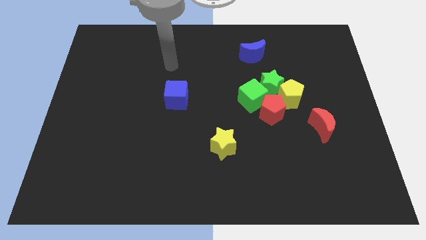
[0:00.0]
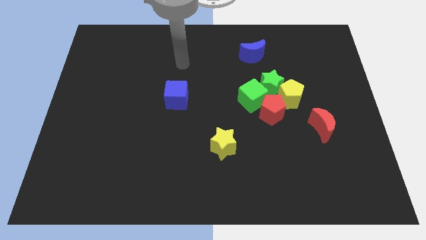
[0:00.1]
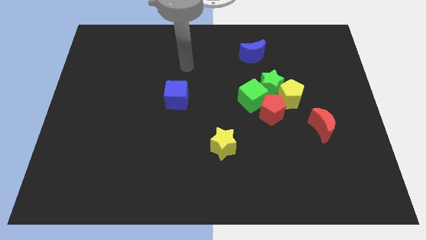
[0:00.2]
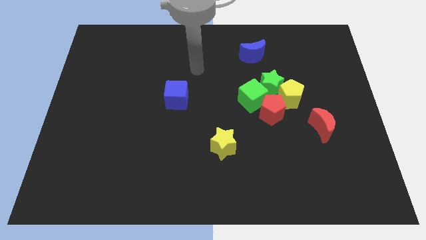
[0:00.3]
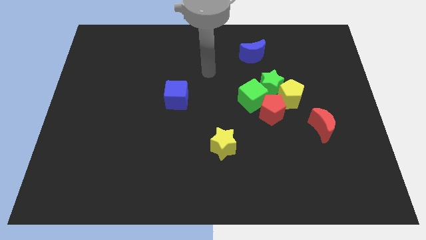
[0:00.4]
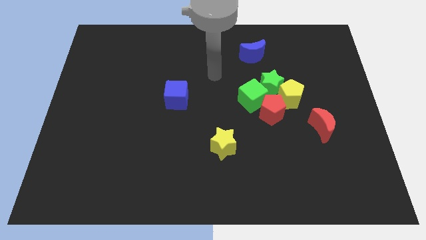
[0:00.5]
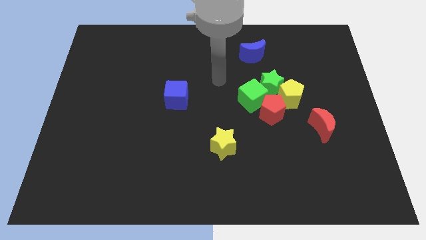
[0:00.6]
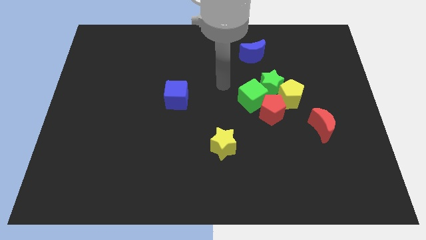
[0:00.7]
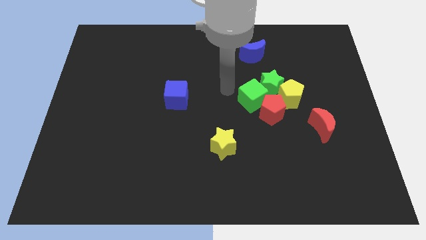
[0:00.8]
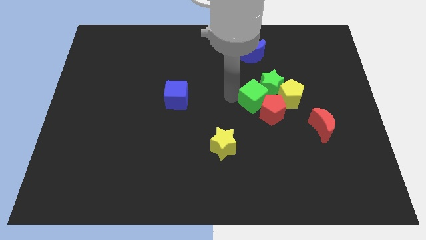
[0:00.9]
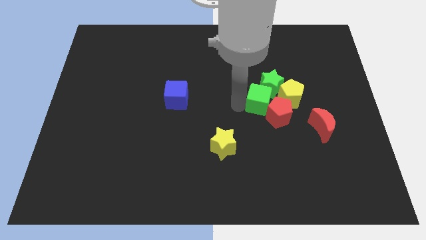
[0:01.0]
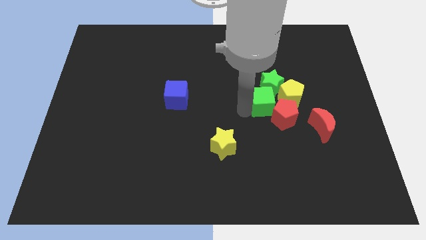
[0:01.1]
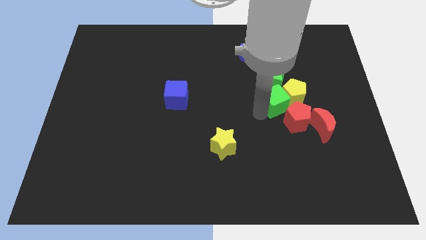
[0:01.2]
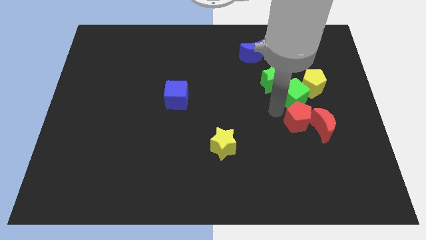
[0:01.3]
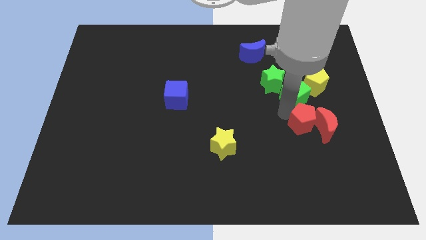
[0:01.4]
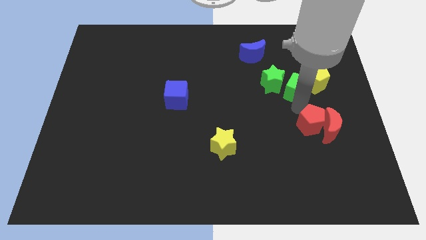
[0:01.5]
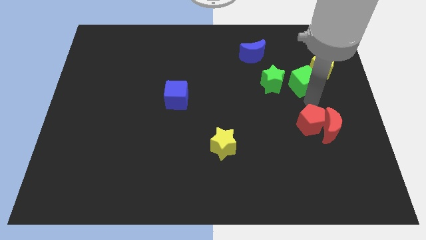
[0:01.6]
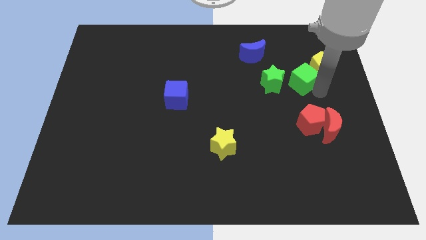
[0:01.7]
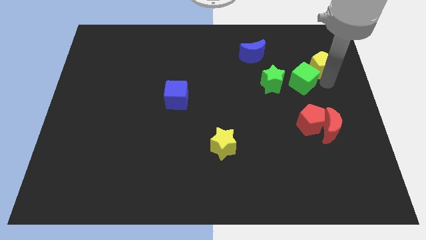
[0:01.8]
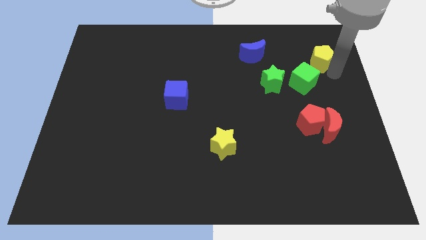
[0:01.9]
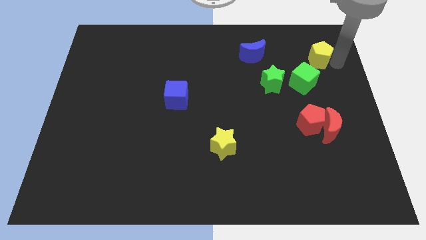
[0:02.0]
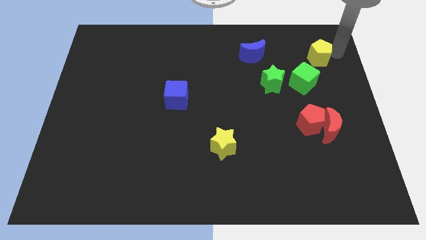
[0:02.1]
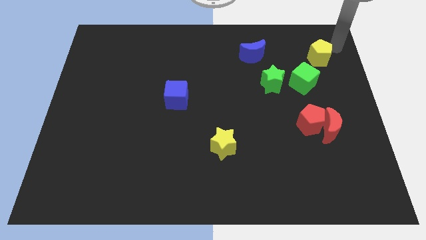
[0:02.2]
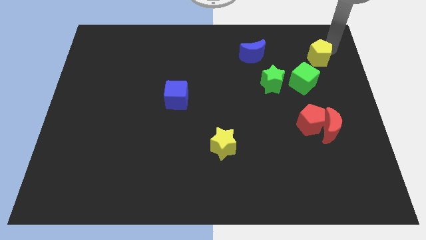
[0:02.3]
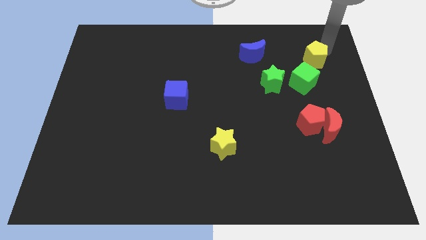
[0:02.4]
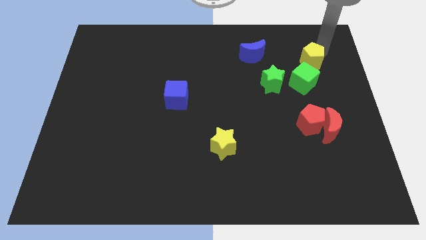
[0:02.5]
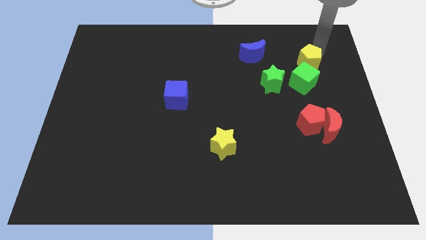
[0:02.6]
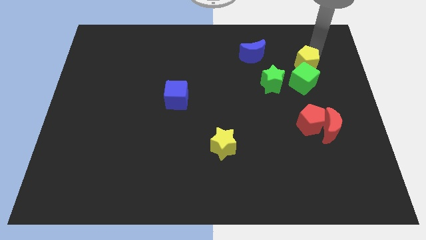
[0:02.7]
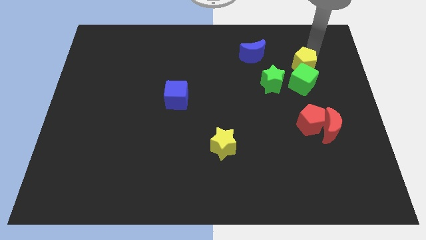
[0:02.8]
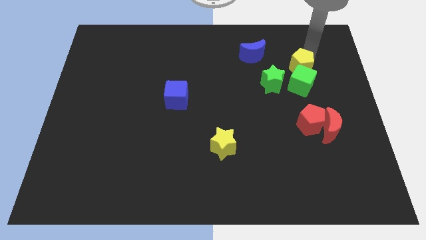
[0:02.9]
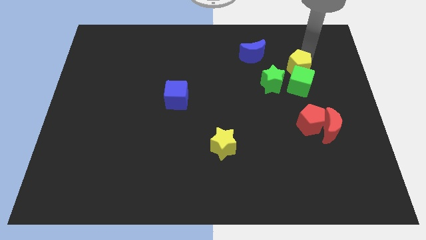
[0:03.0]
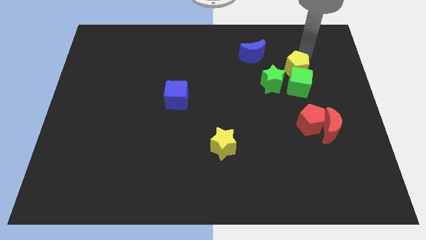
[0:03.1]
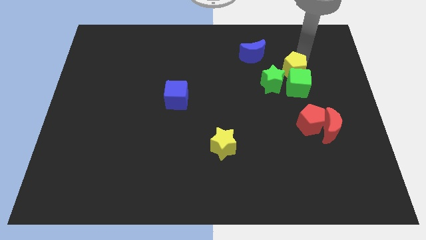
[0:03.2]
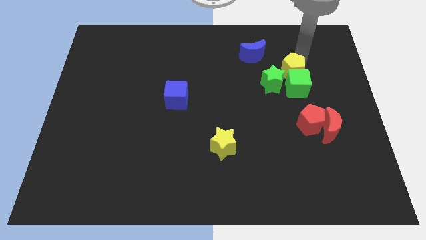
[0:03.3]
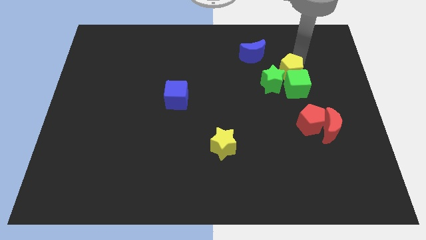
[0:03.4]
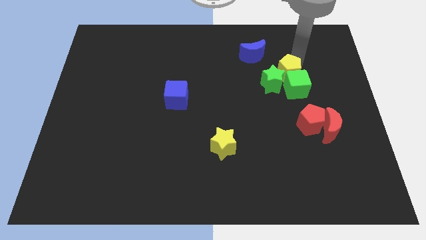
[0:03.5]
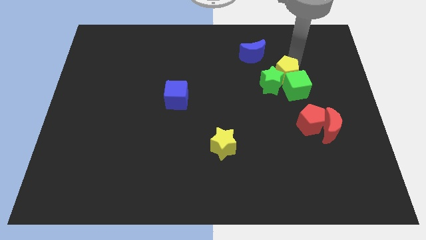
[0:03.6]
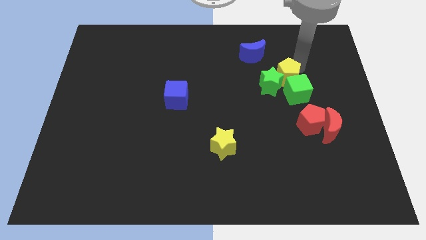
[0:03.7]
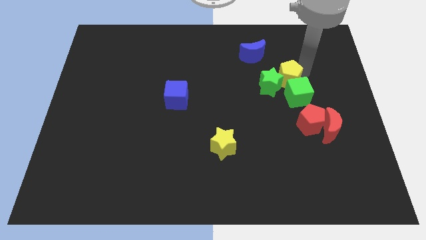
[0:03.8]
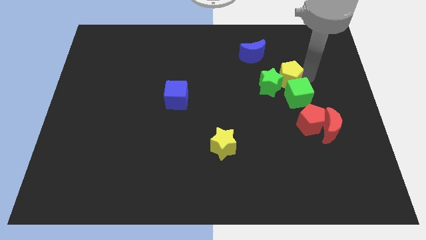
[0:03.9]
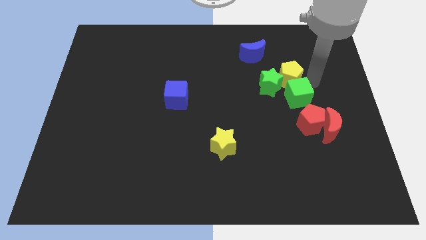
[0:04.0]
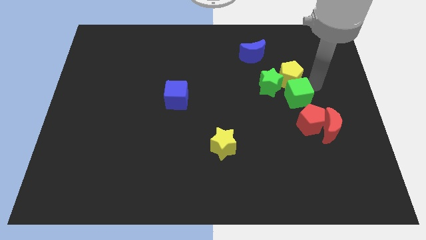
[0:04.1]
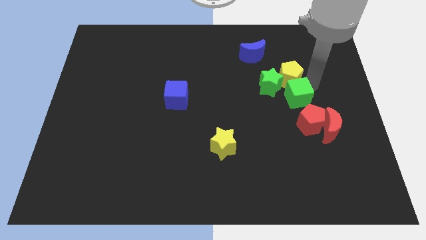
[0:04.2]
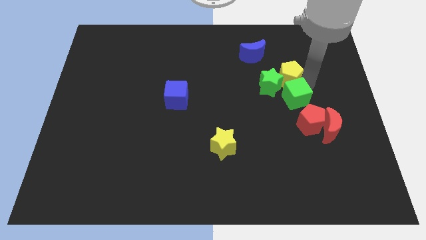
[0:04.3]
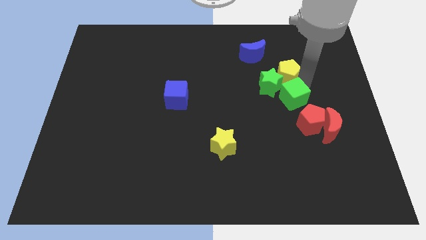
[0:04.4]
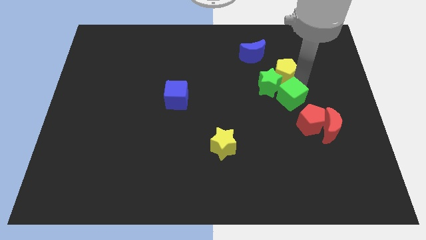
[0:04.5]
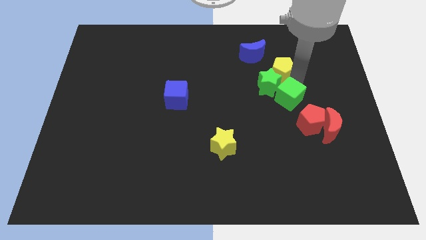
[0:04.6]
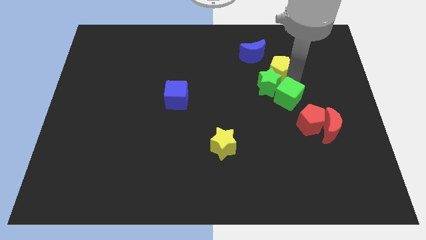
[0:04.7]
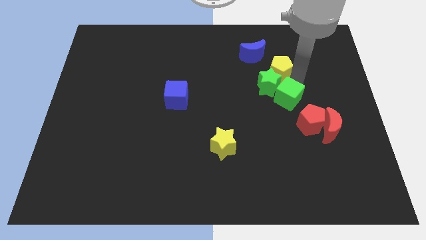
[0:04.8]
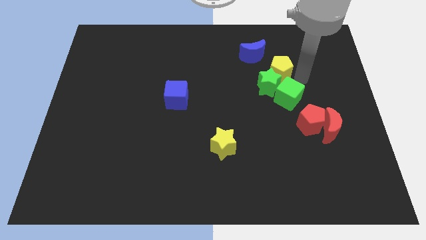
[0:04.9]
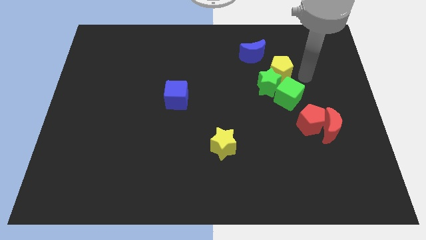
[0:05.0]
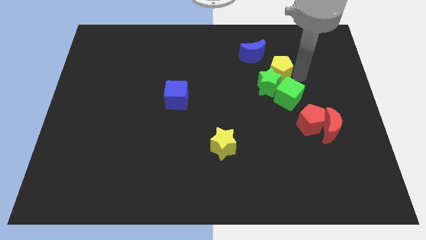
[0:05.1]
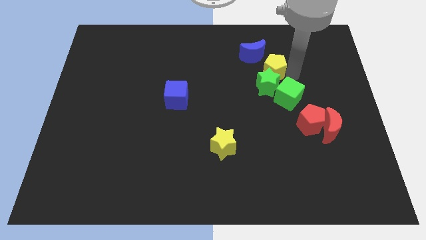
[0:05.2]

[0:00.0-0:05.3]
slide the yellow pentagon upwards and left diagonally somewhat

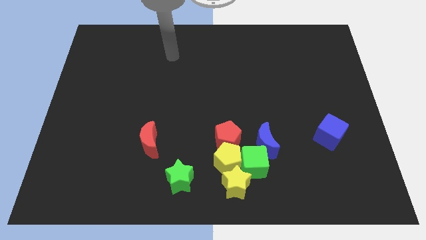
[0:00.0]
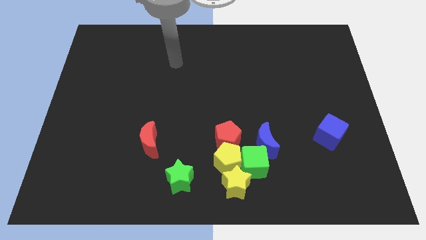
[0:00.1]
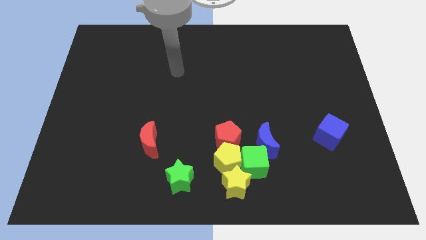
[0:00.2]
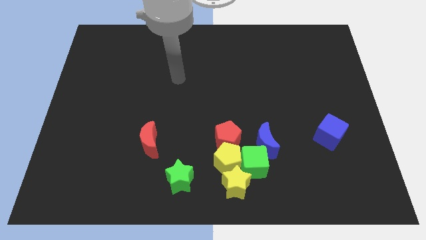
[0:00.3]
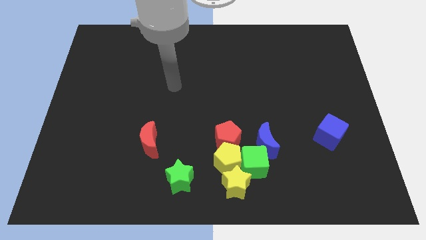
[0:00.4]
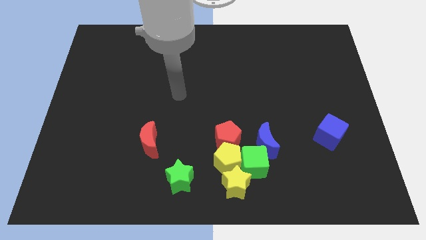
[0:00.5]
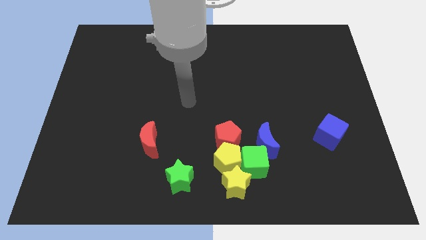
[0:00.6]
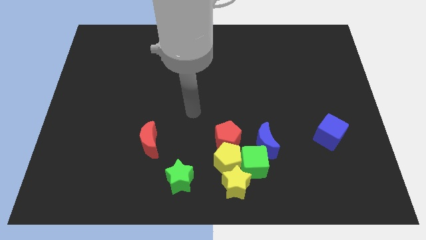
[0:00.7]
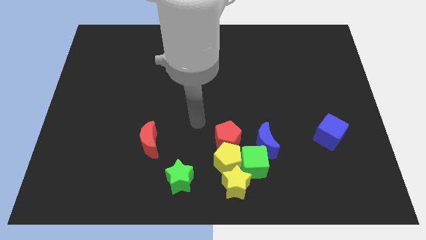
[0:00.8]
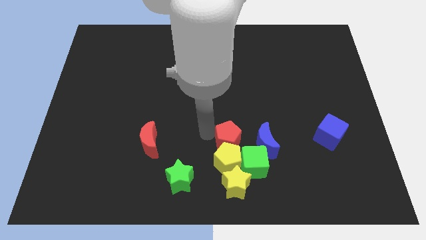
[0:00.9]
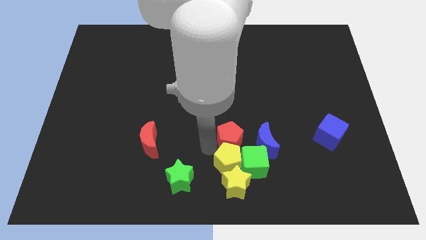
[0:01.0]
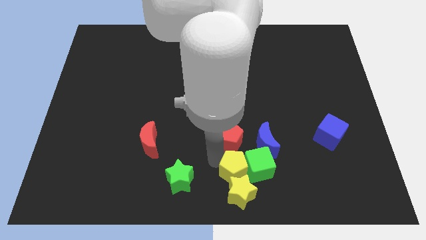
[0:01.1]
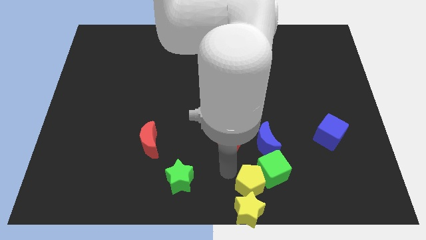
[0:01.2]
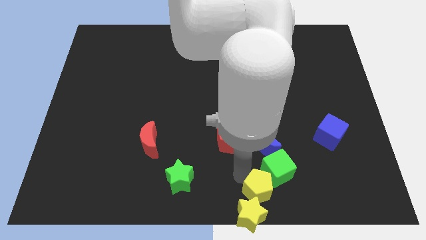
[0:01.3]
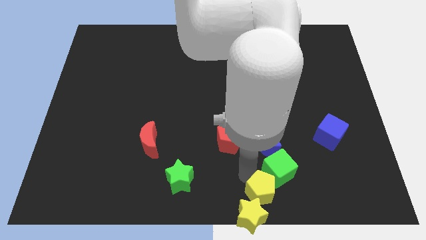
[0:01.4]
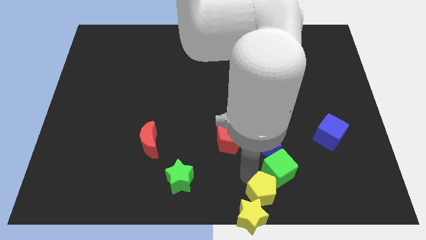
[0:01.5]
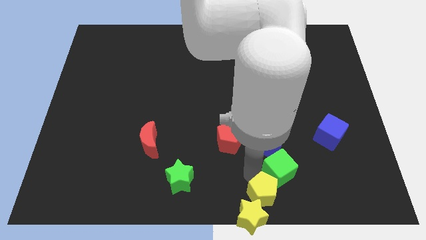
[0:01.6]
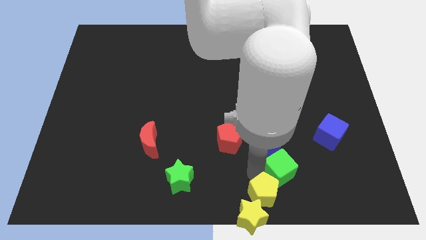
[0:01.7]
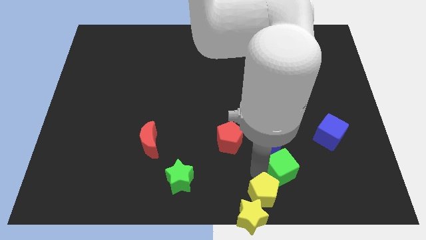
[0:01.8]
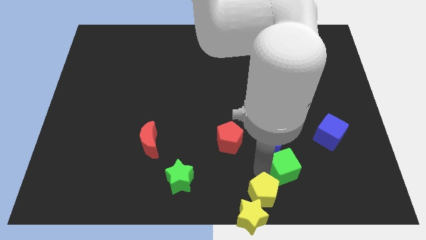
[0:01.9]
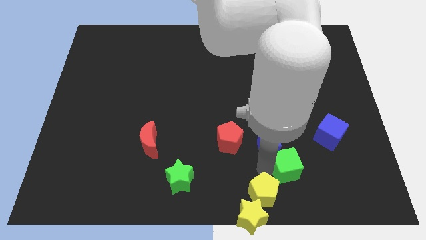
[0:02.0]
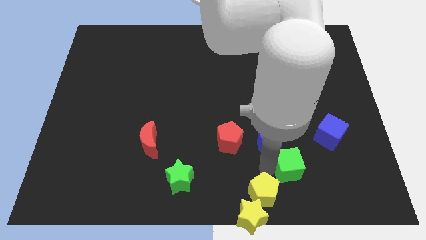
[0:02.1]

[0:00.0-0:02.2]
push the green cube a little bit to the right

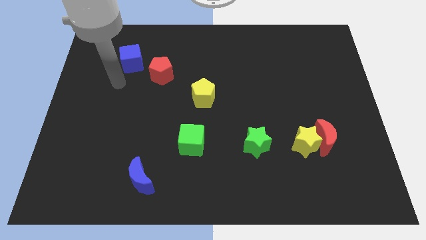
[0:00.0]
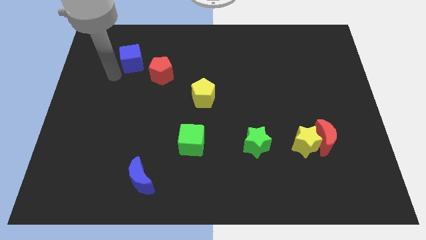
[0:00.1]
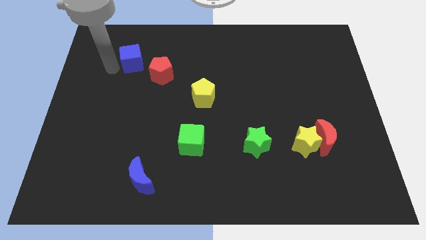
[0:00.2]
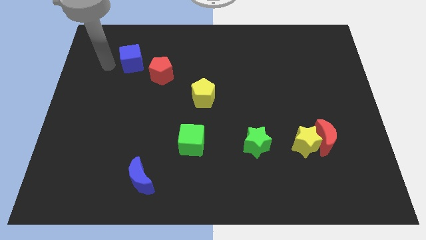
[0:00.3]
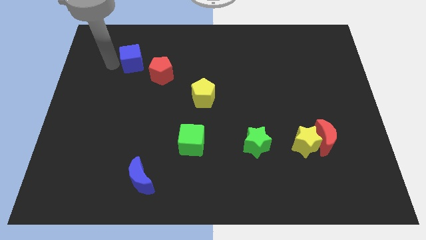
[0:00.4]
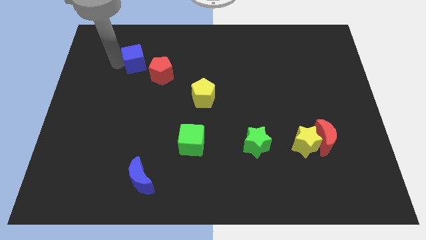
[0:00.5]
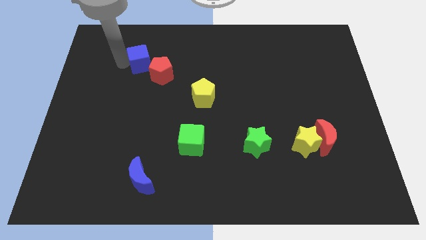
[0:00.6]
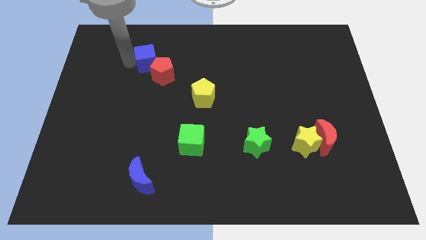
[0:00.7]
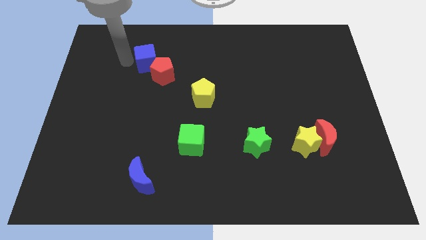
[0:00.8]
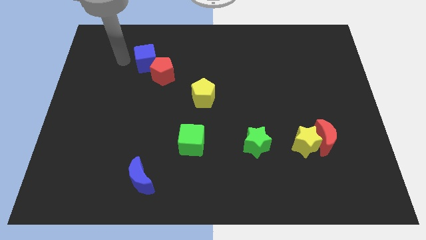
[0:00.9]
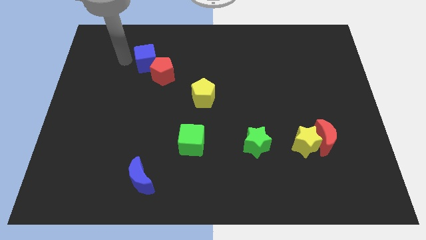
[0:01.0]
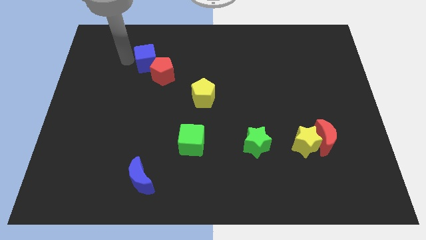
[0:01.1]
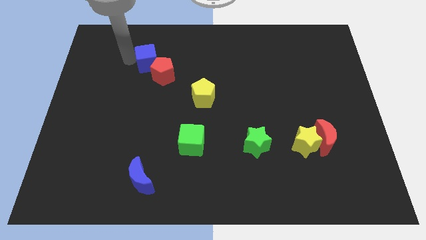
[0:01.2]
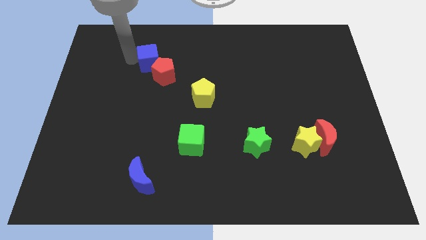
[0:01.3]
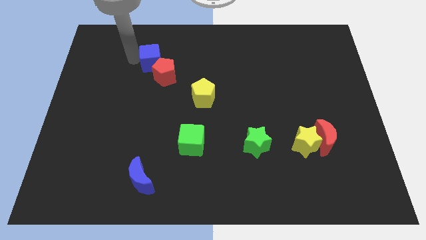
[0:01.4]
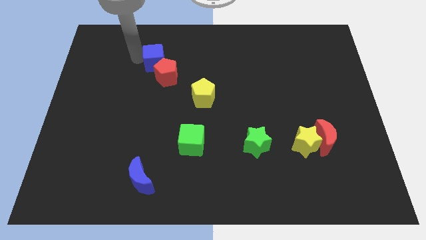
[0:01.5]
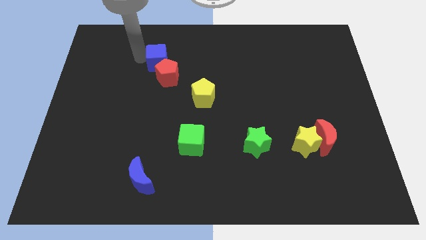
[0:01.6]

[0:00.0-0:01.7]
push the blue cube a little bit right
